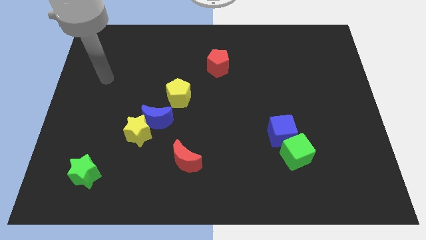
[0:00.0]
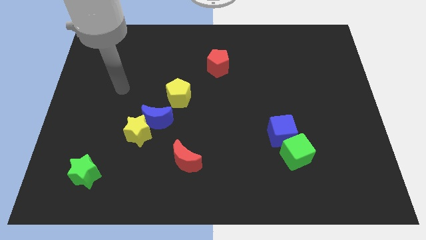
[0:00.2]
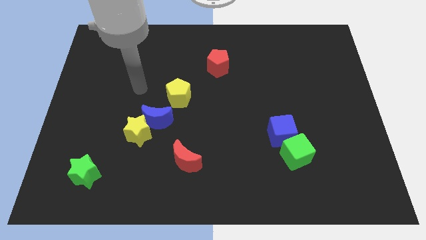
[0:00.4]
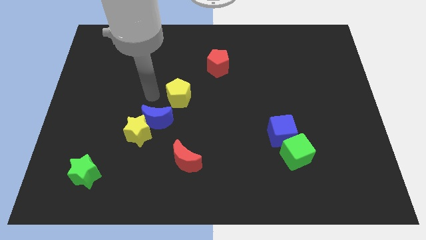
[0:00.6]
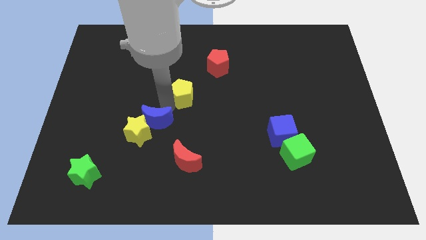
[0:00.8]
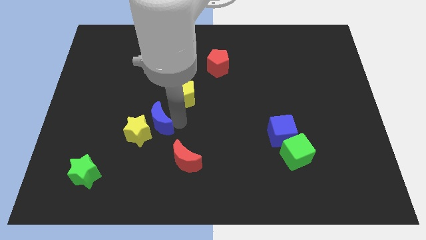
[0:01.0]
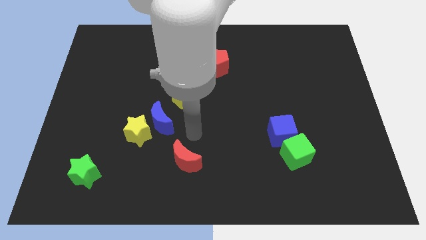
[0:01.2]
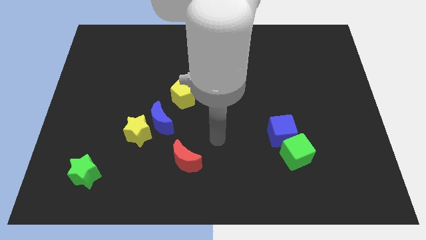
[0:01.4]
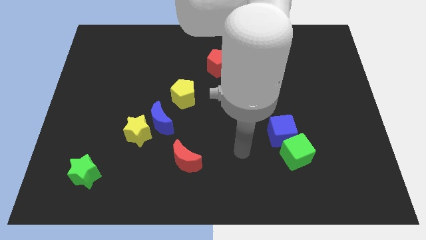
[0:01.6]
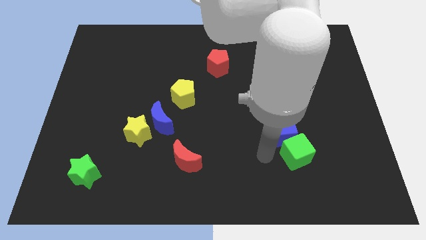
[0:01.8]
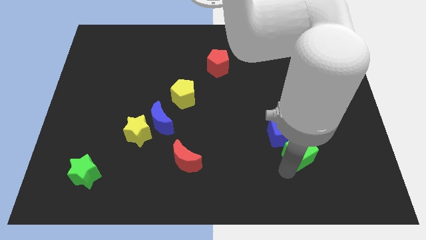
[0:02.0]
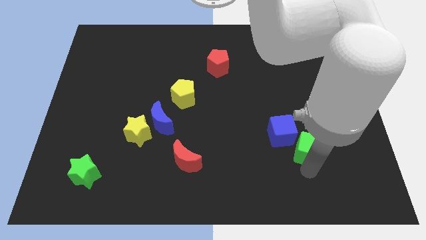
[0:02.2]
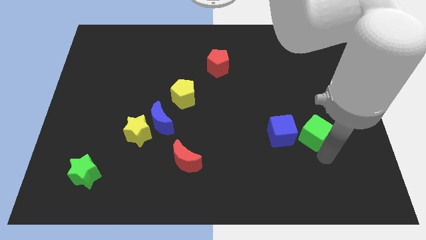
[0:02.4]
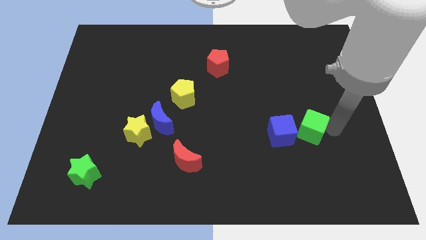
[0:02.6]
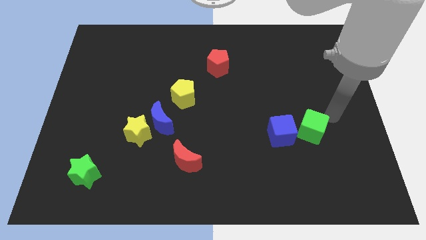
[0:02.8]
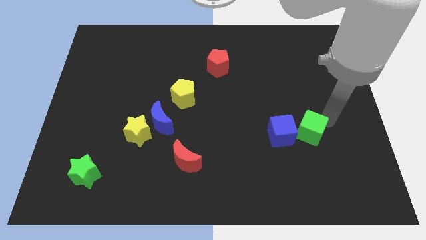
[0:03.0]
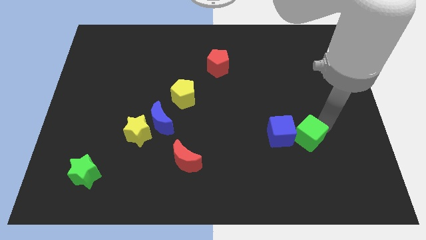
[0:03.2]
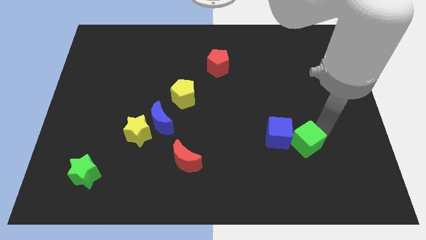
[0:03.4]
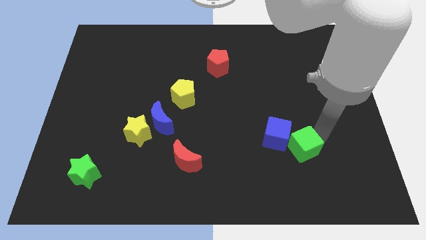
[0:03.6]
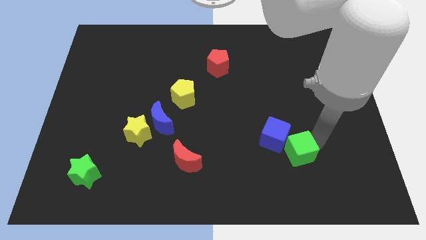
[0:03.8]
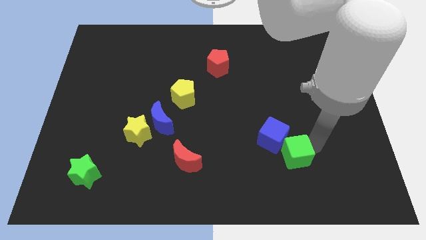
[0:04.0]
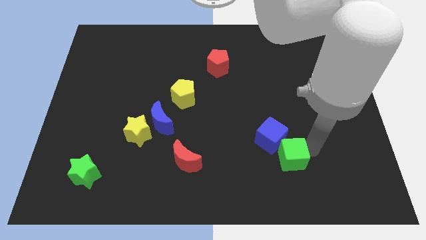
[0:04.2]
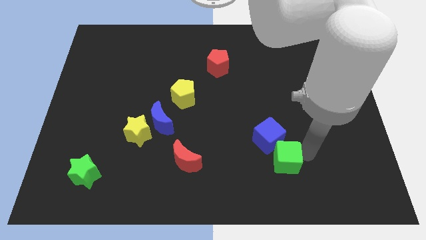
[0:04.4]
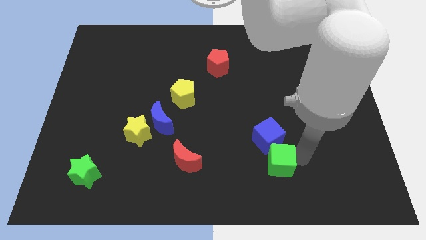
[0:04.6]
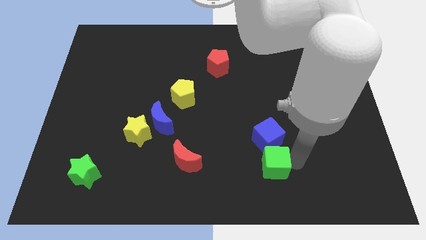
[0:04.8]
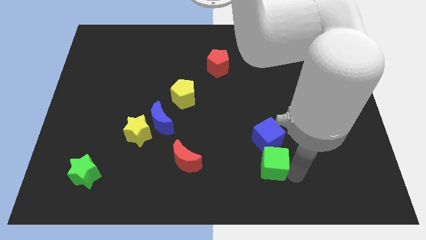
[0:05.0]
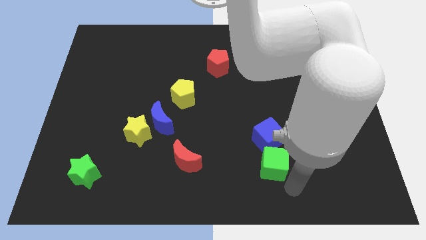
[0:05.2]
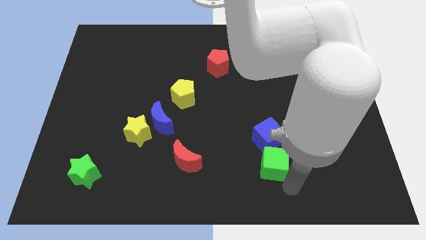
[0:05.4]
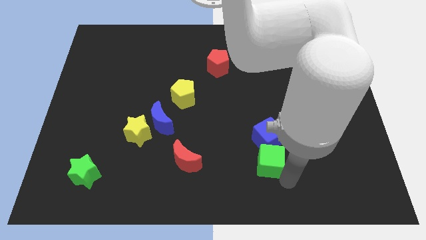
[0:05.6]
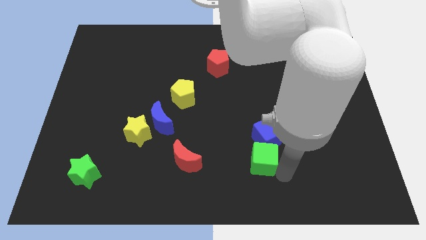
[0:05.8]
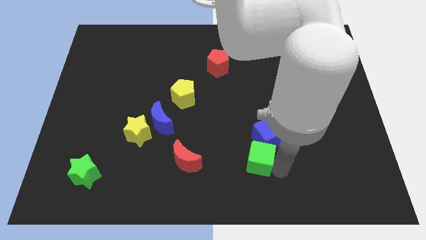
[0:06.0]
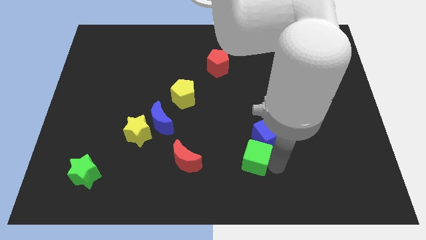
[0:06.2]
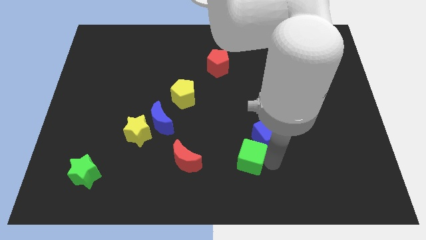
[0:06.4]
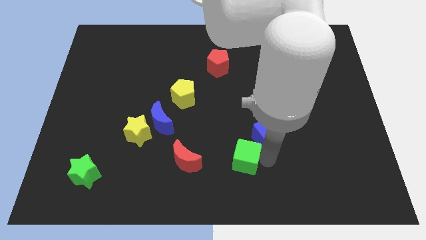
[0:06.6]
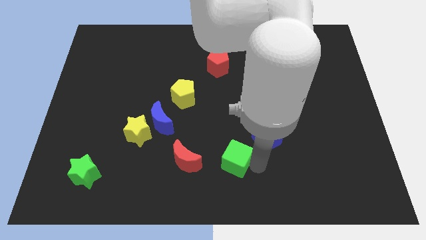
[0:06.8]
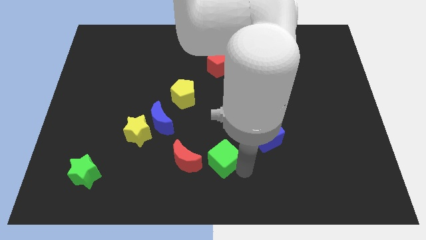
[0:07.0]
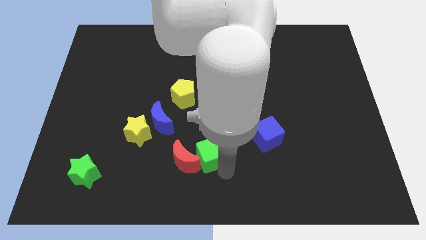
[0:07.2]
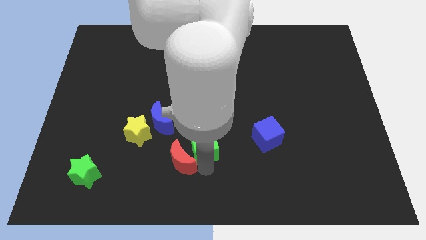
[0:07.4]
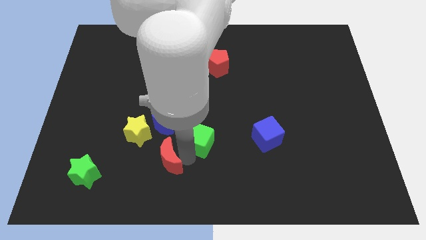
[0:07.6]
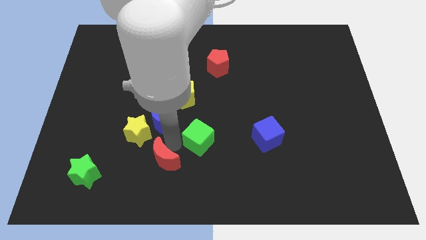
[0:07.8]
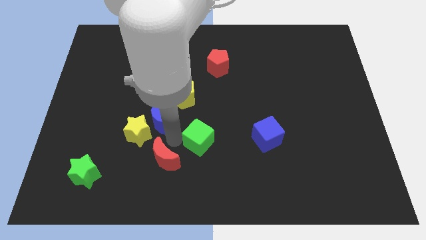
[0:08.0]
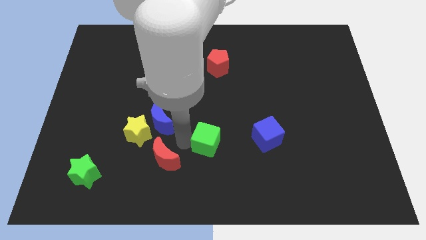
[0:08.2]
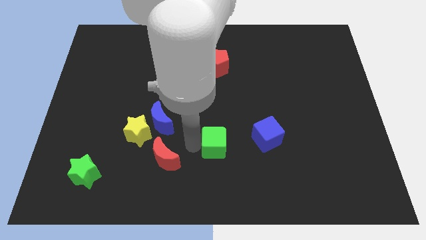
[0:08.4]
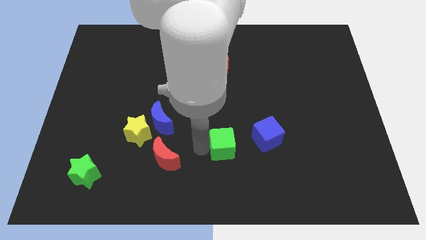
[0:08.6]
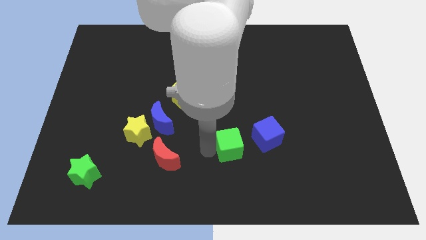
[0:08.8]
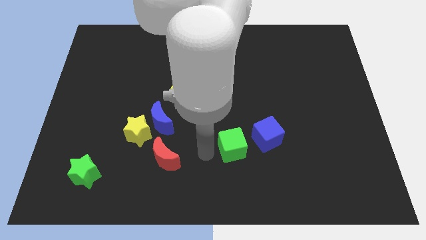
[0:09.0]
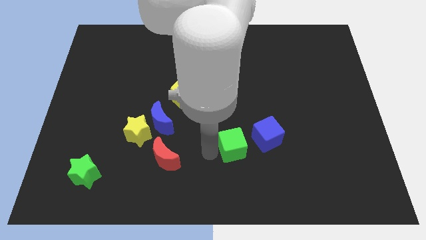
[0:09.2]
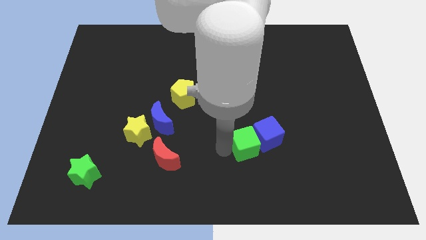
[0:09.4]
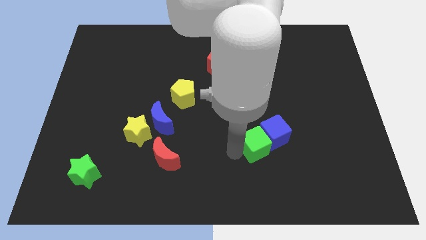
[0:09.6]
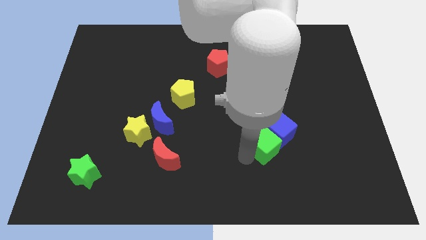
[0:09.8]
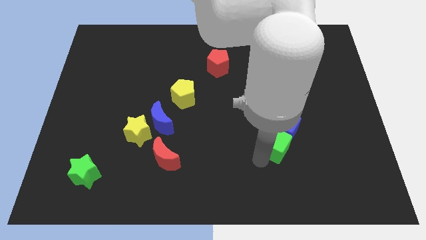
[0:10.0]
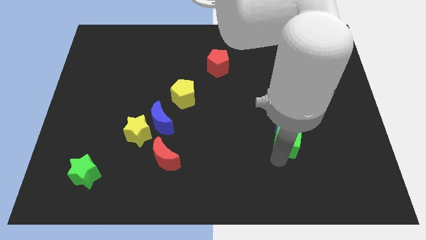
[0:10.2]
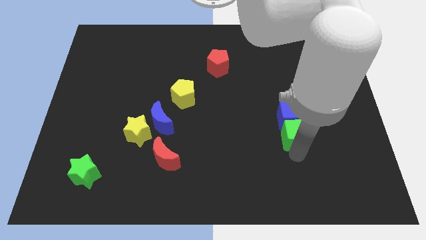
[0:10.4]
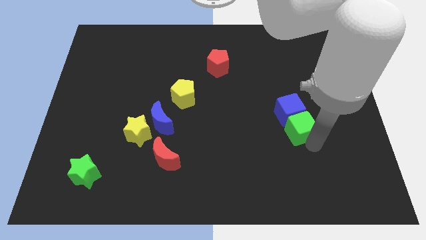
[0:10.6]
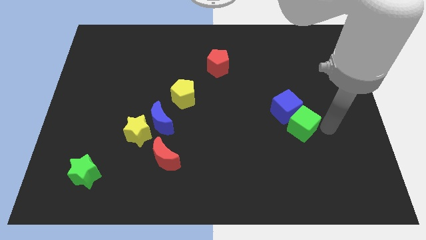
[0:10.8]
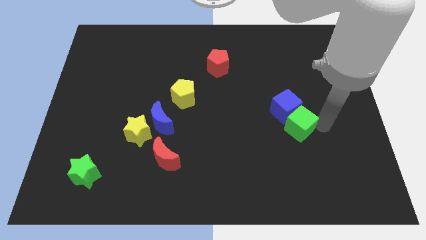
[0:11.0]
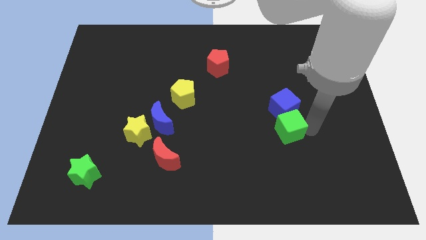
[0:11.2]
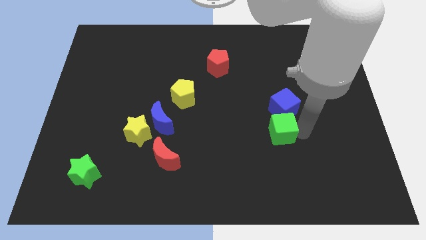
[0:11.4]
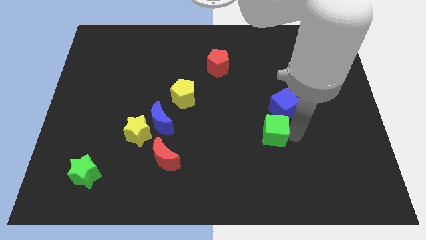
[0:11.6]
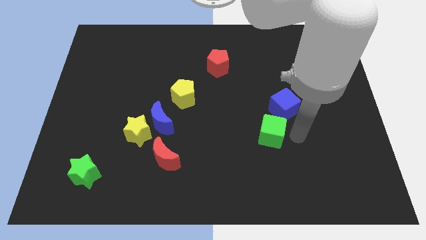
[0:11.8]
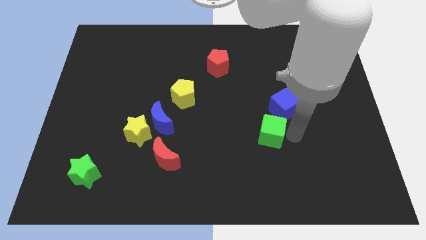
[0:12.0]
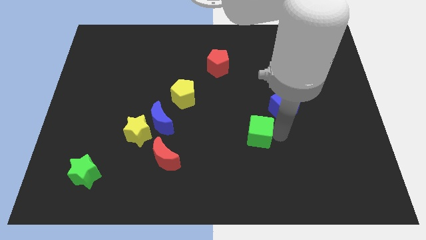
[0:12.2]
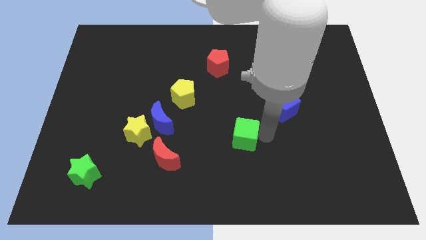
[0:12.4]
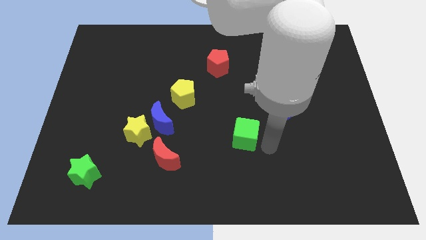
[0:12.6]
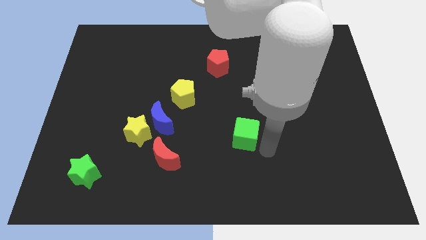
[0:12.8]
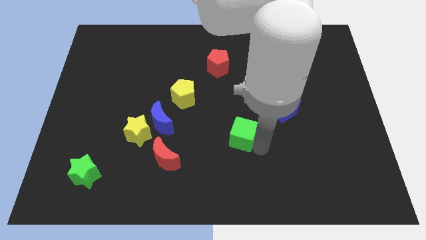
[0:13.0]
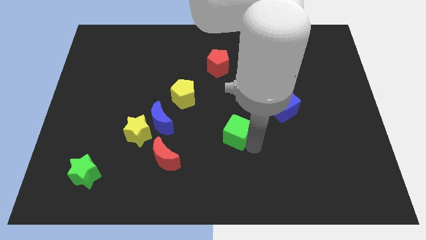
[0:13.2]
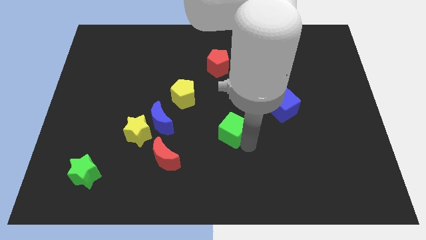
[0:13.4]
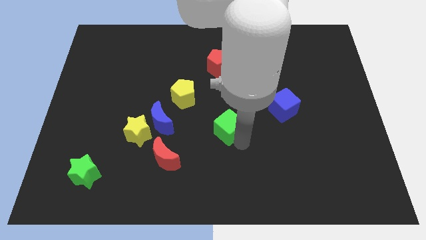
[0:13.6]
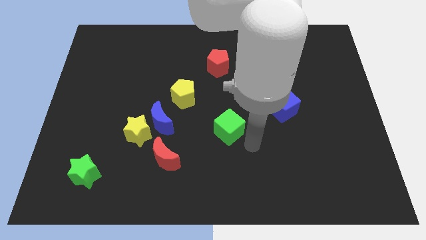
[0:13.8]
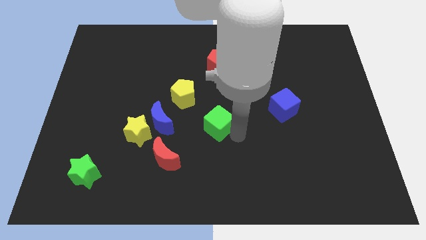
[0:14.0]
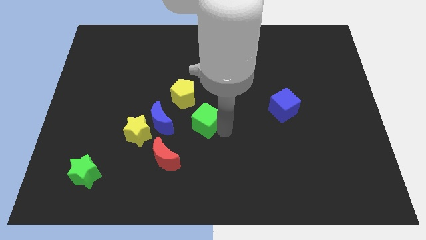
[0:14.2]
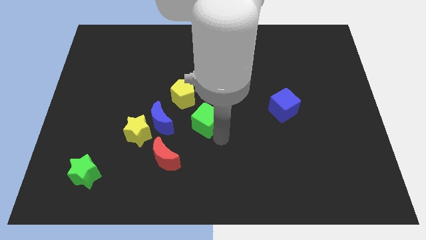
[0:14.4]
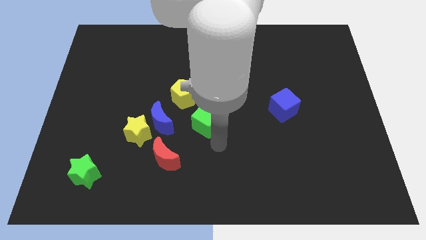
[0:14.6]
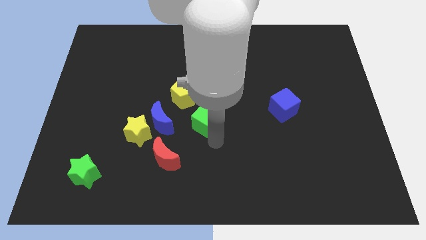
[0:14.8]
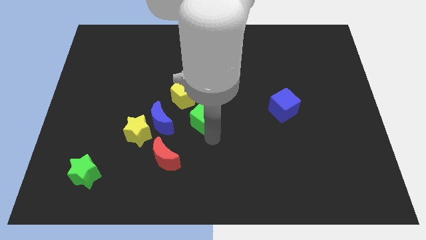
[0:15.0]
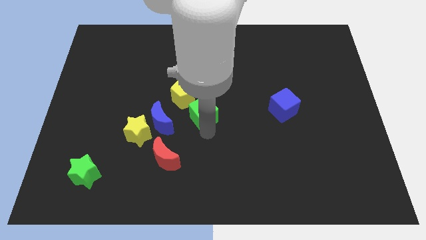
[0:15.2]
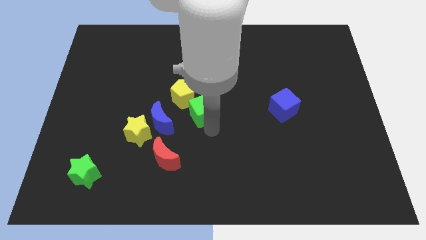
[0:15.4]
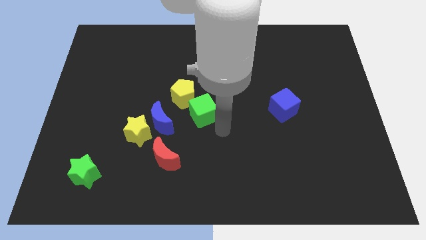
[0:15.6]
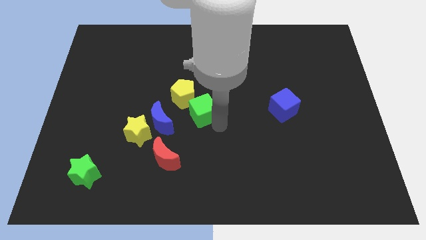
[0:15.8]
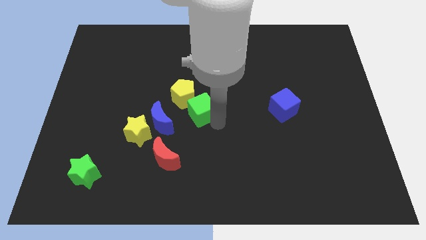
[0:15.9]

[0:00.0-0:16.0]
slide the green cube towards the yellow pentagon
